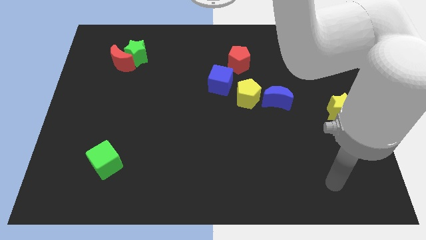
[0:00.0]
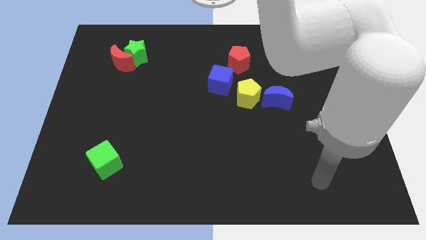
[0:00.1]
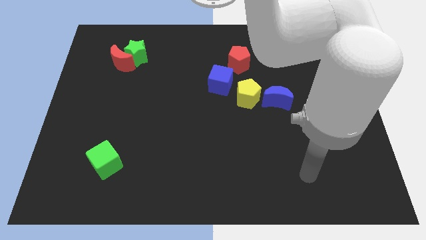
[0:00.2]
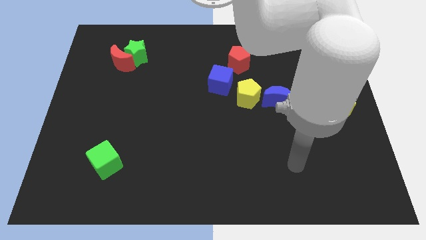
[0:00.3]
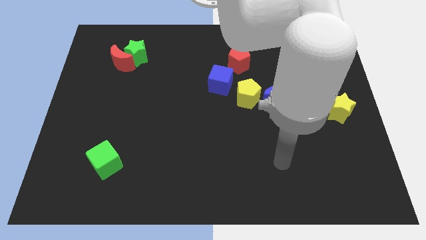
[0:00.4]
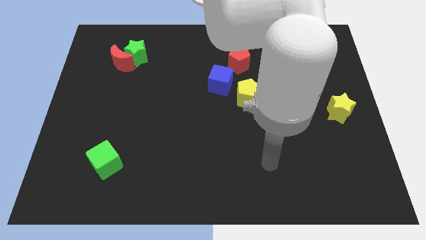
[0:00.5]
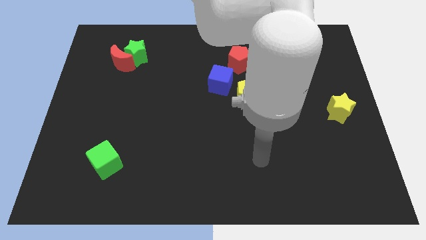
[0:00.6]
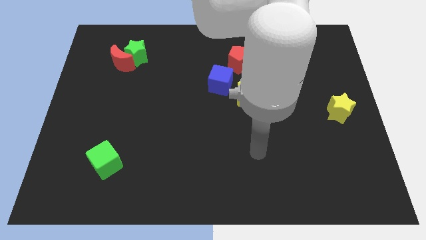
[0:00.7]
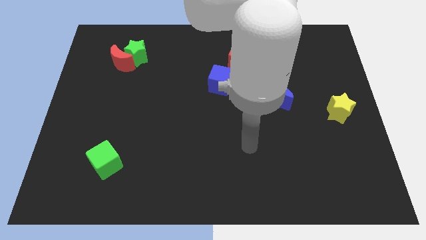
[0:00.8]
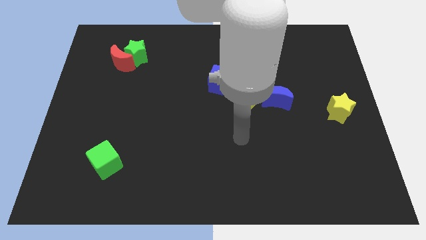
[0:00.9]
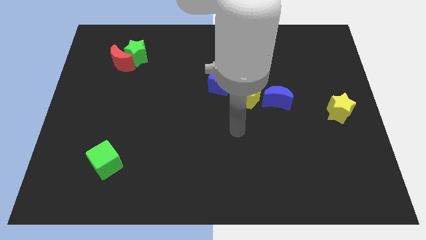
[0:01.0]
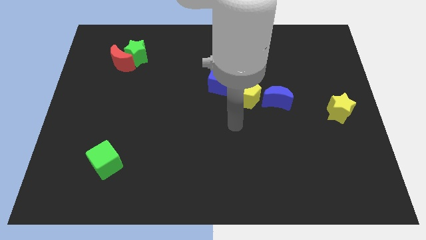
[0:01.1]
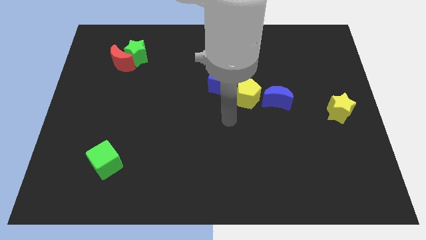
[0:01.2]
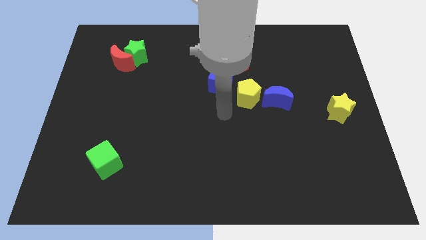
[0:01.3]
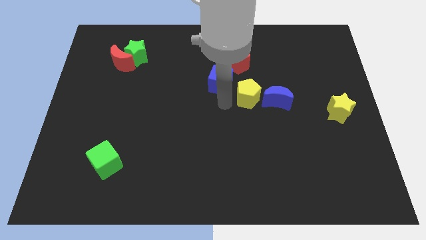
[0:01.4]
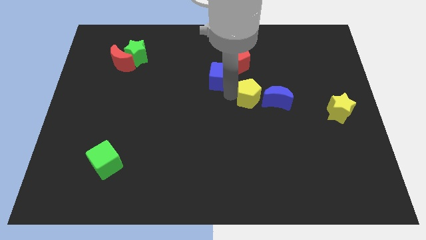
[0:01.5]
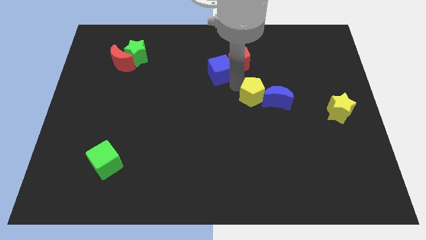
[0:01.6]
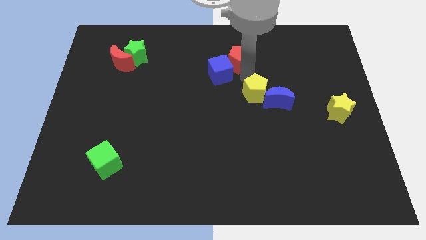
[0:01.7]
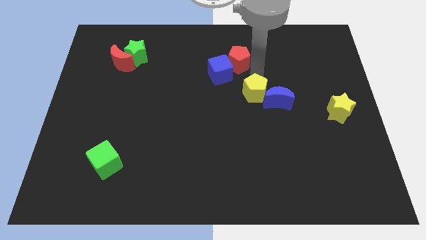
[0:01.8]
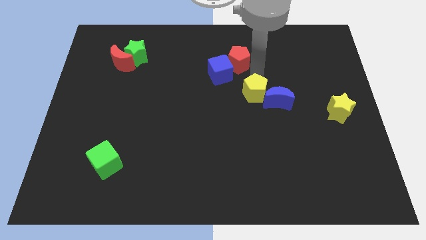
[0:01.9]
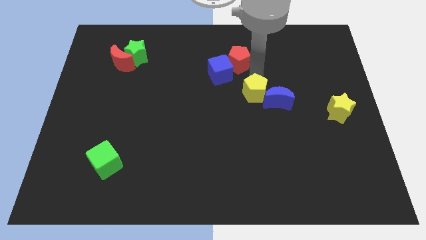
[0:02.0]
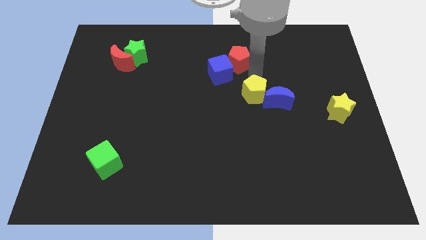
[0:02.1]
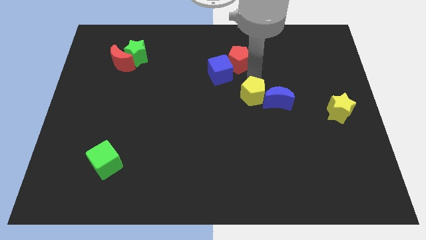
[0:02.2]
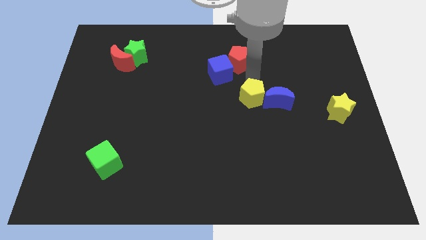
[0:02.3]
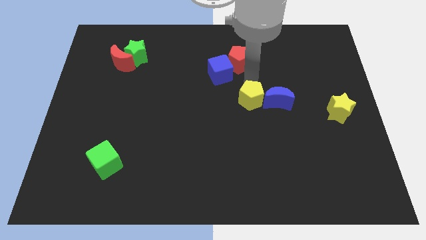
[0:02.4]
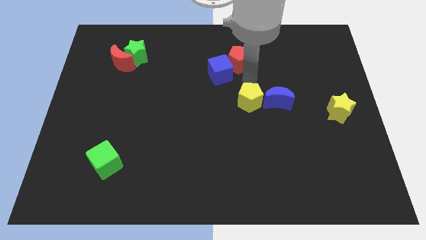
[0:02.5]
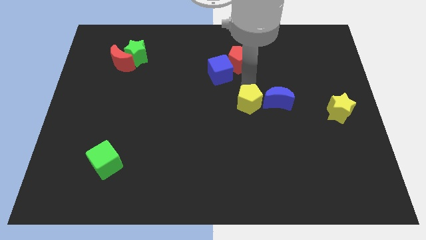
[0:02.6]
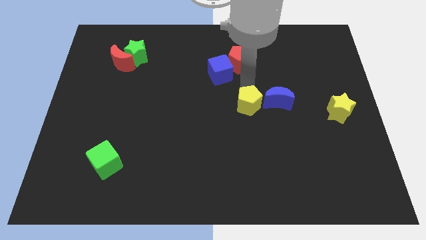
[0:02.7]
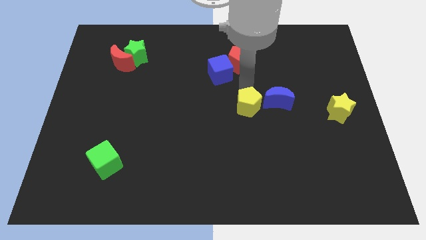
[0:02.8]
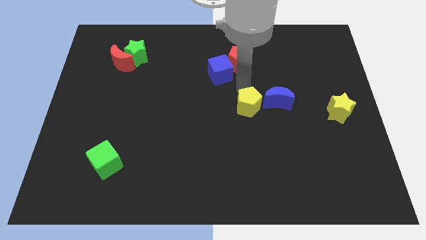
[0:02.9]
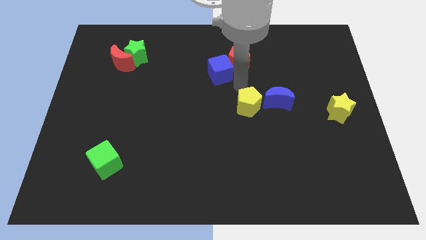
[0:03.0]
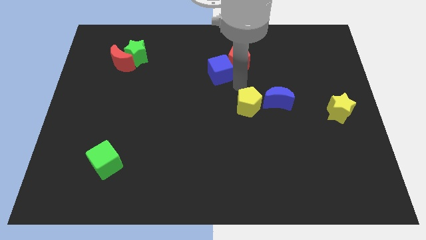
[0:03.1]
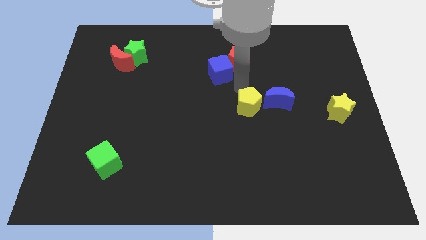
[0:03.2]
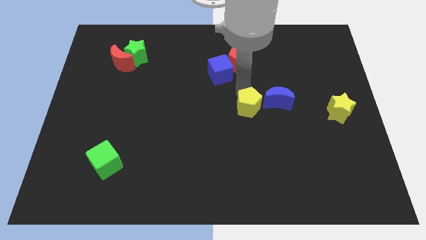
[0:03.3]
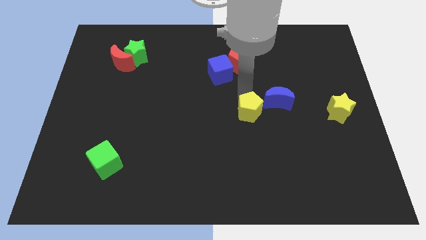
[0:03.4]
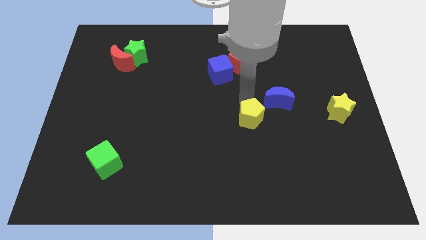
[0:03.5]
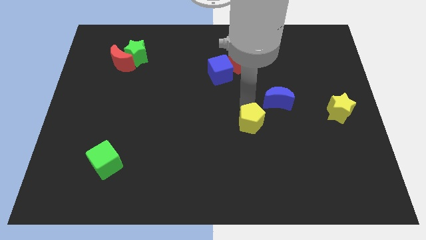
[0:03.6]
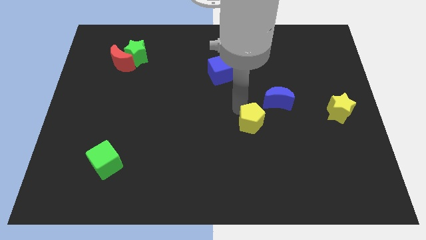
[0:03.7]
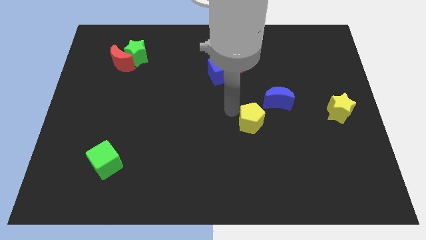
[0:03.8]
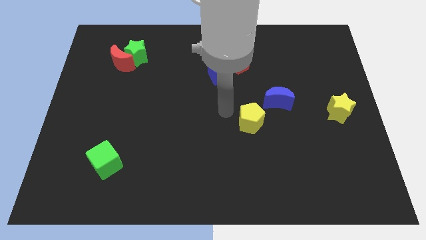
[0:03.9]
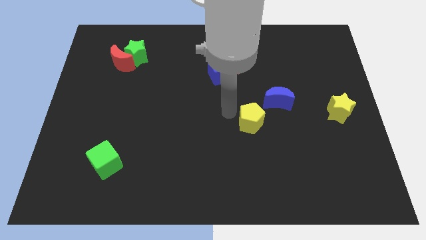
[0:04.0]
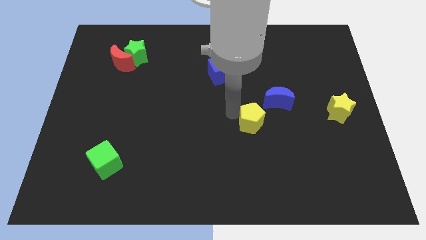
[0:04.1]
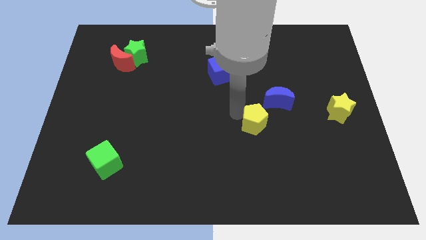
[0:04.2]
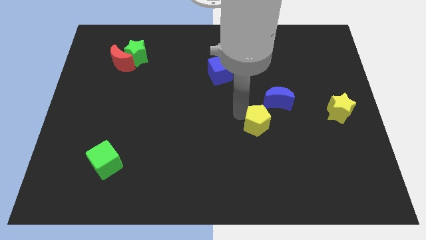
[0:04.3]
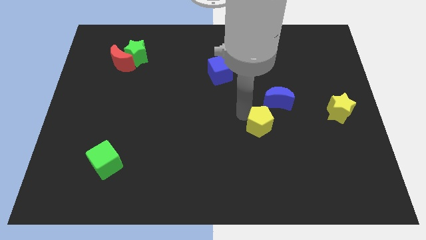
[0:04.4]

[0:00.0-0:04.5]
slightly slide the yellow pentagon down and to the right

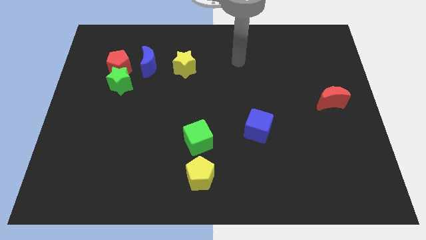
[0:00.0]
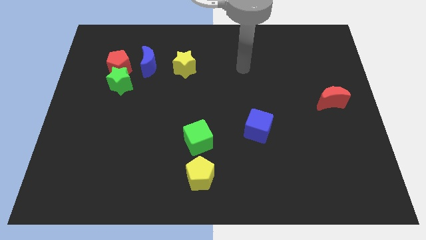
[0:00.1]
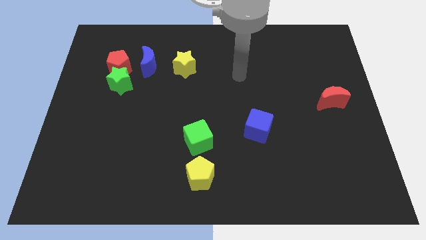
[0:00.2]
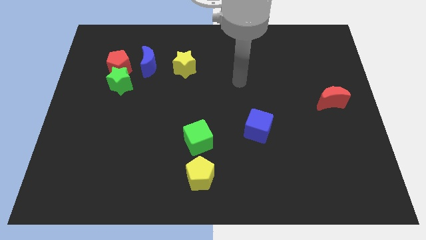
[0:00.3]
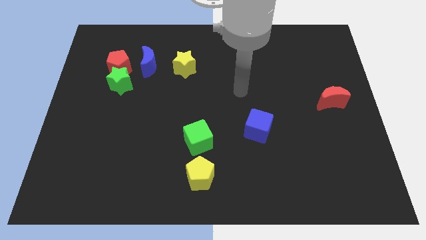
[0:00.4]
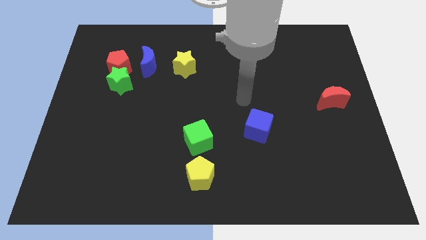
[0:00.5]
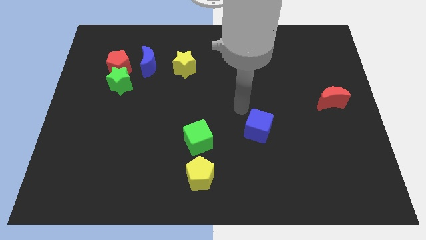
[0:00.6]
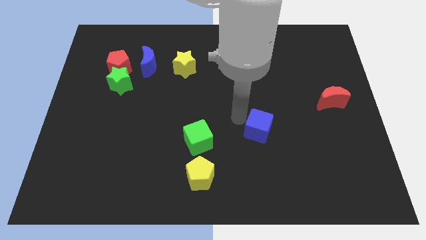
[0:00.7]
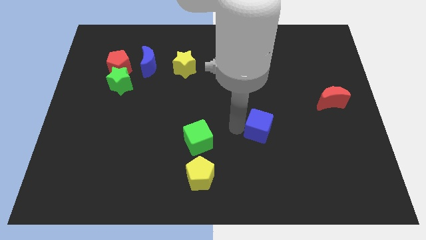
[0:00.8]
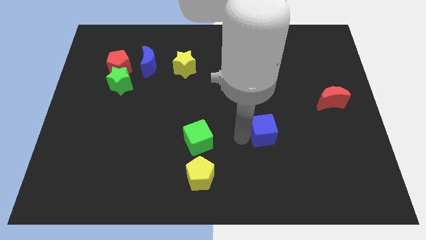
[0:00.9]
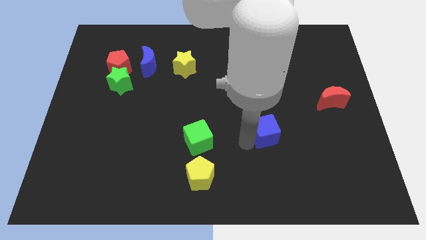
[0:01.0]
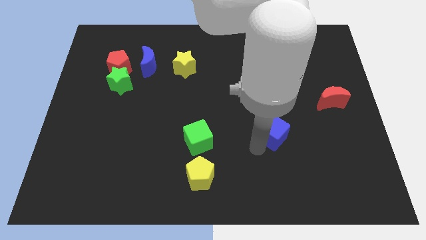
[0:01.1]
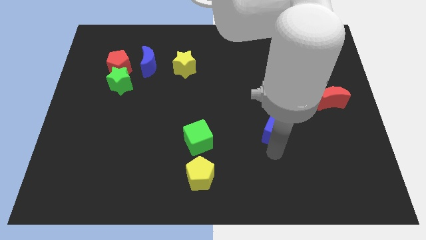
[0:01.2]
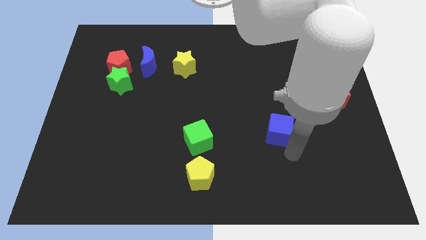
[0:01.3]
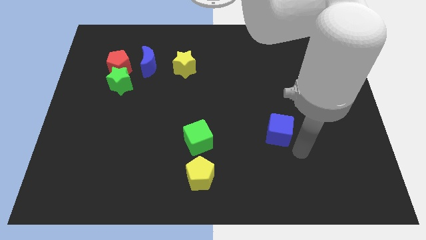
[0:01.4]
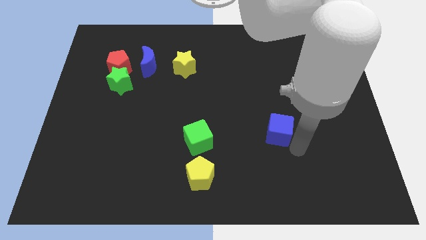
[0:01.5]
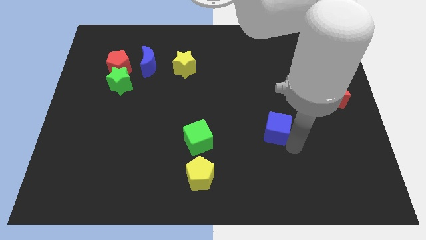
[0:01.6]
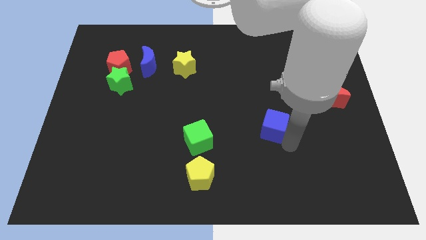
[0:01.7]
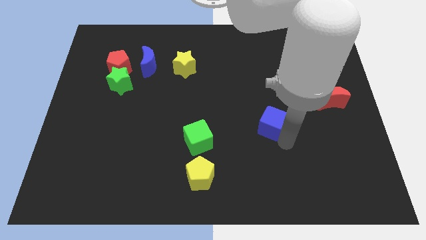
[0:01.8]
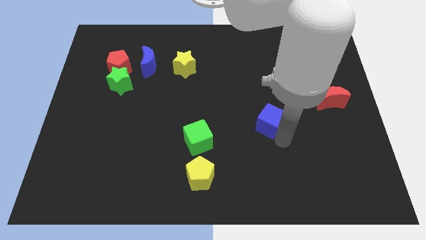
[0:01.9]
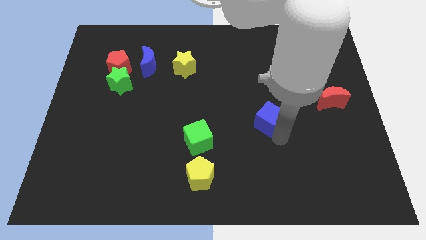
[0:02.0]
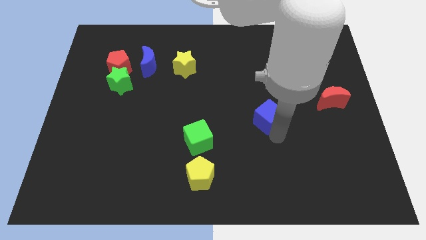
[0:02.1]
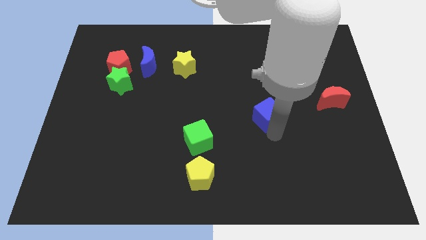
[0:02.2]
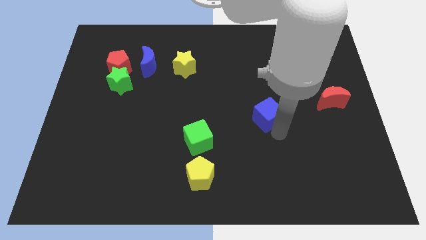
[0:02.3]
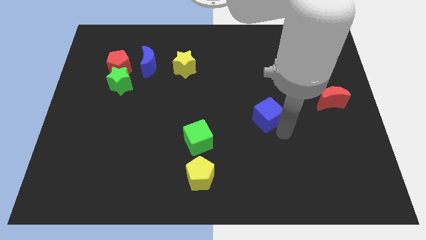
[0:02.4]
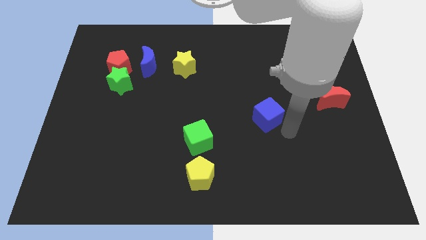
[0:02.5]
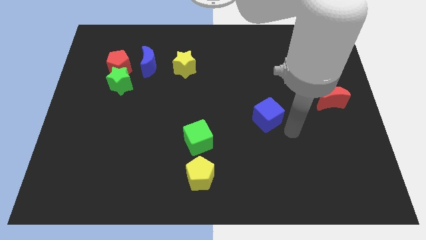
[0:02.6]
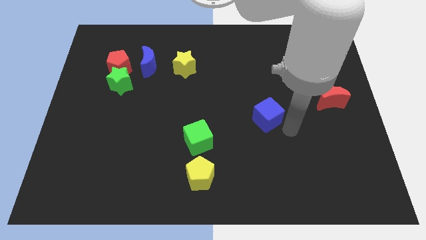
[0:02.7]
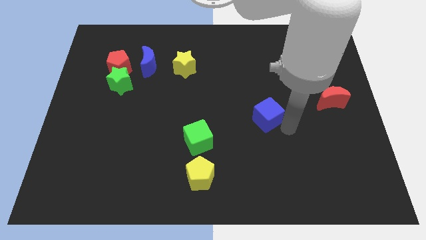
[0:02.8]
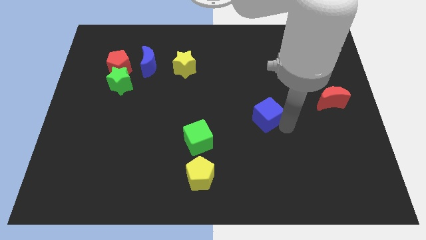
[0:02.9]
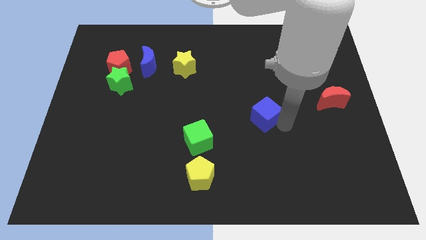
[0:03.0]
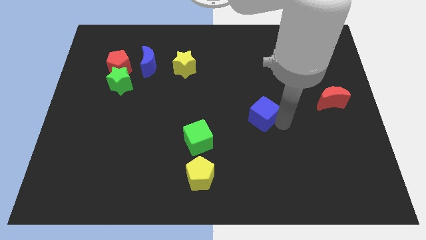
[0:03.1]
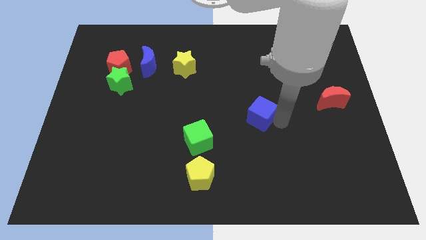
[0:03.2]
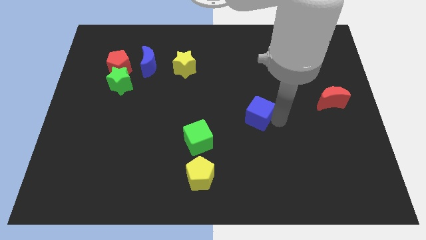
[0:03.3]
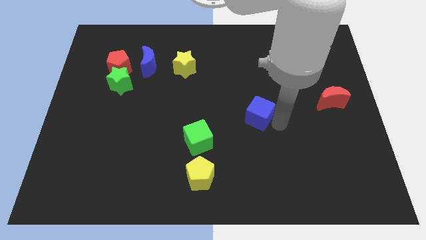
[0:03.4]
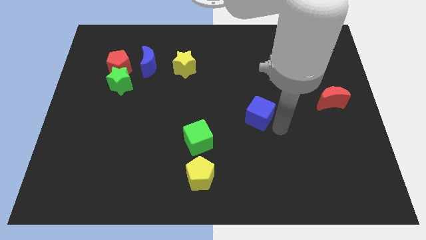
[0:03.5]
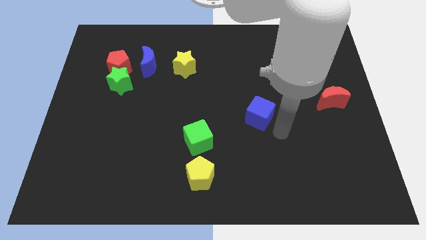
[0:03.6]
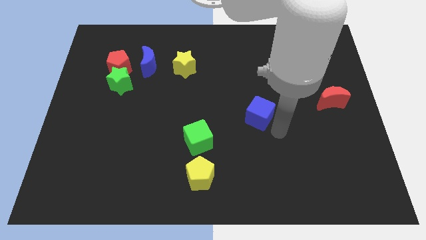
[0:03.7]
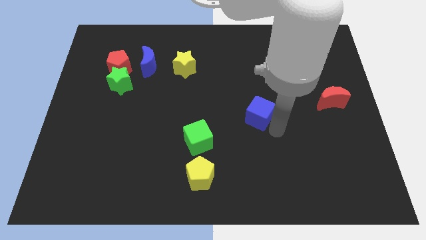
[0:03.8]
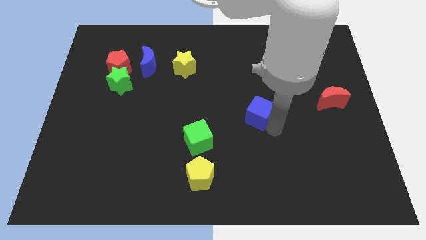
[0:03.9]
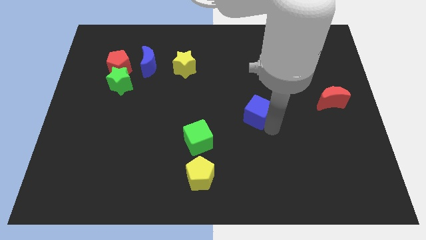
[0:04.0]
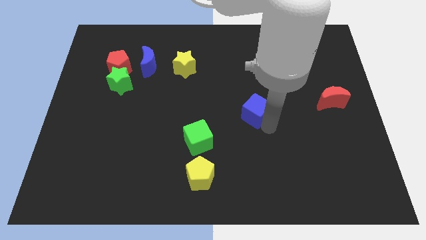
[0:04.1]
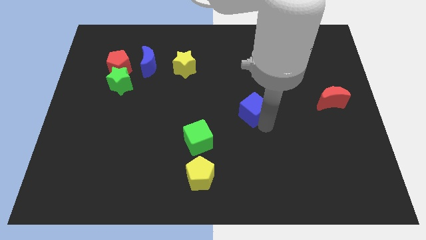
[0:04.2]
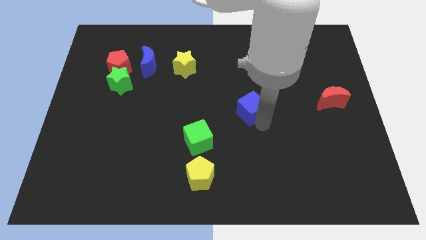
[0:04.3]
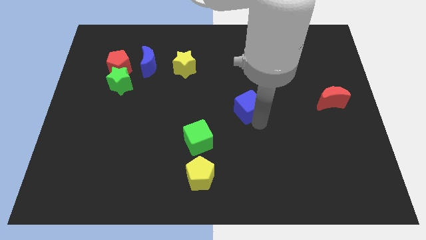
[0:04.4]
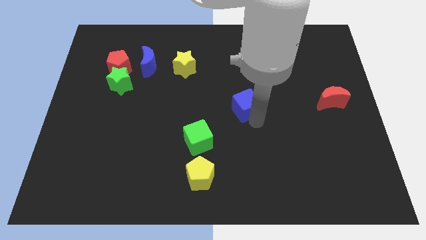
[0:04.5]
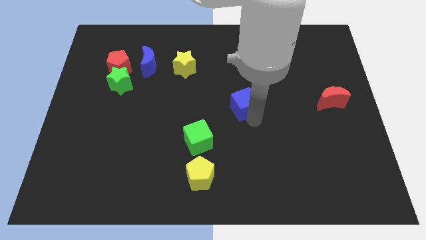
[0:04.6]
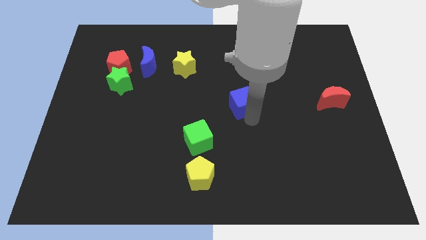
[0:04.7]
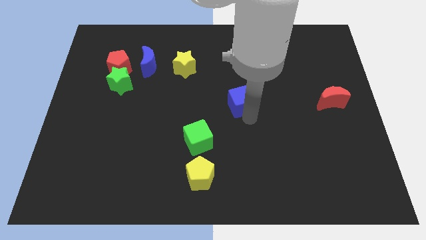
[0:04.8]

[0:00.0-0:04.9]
slightly push the blue cube upwards
